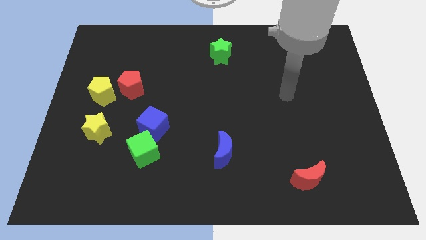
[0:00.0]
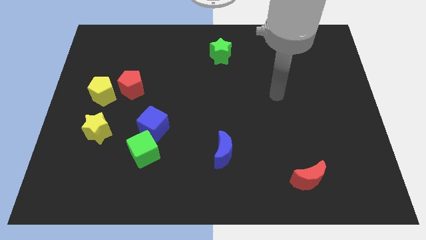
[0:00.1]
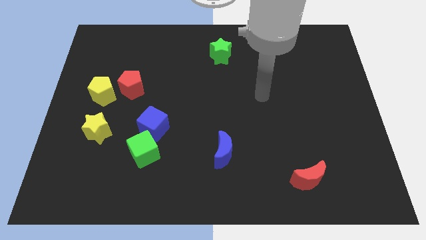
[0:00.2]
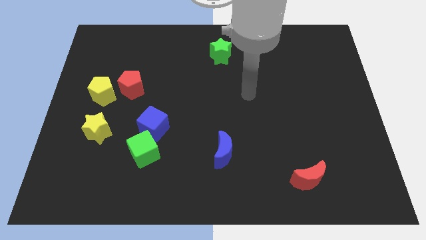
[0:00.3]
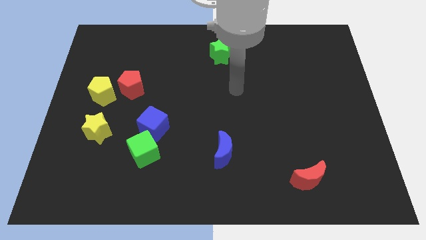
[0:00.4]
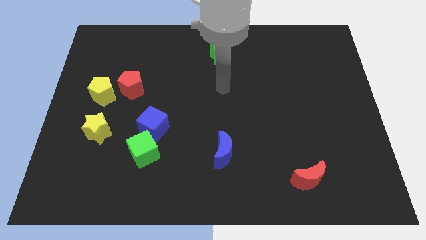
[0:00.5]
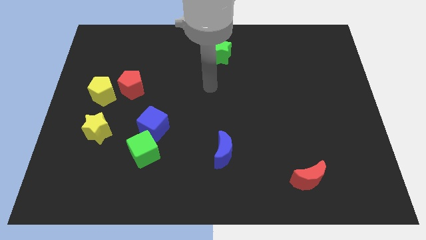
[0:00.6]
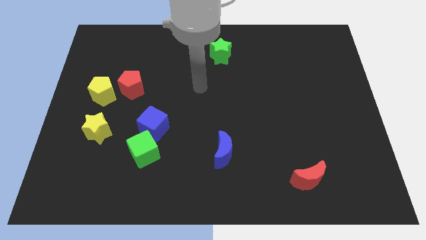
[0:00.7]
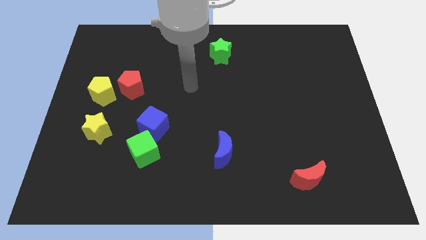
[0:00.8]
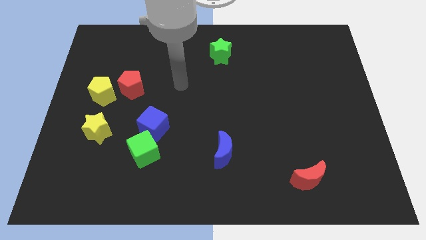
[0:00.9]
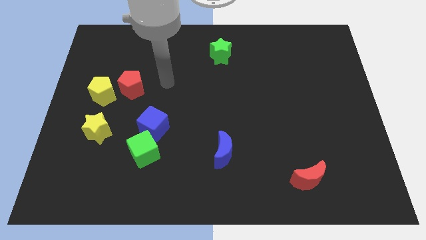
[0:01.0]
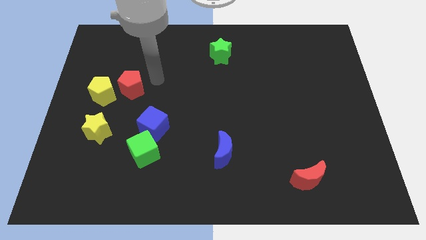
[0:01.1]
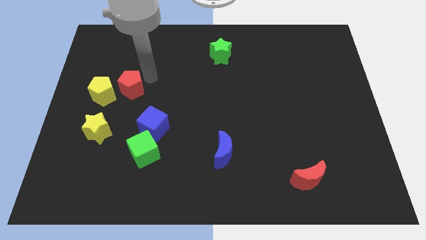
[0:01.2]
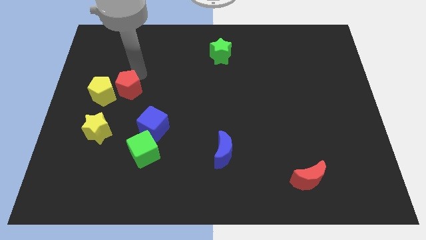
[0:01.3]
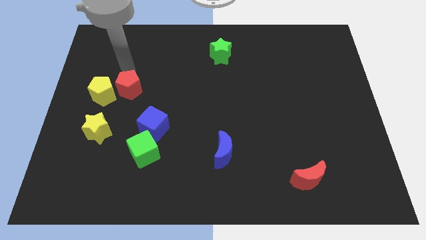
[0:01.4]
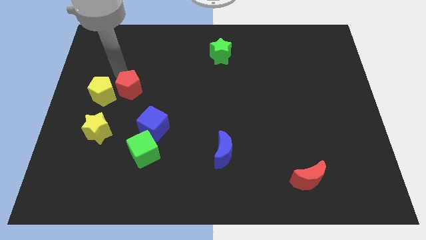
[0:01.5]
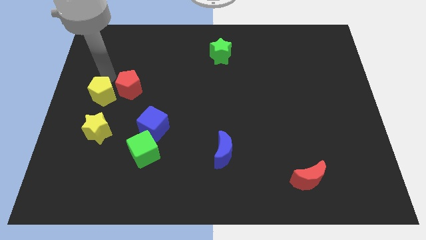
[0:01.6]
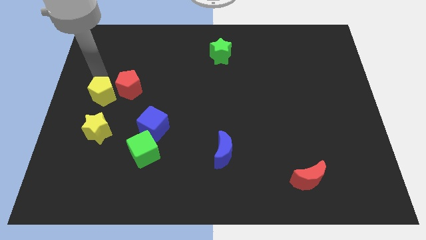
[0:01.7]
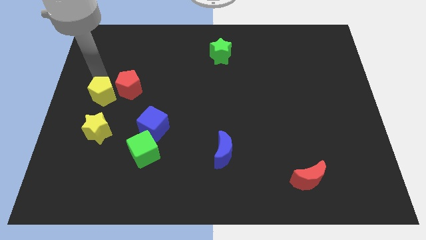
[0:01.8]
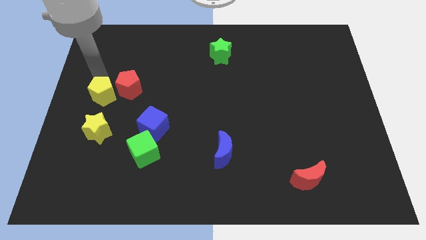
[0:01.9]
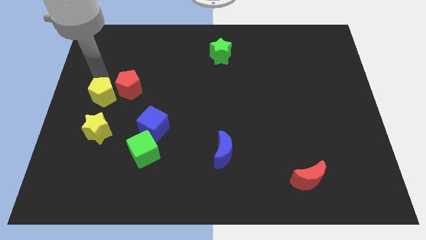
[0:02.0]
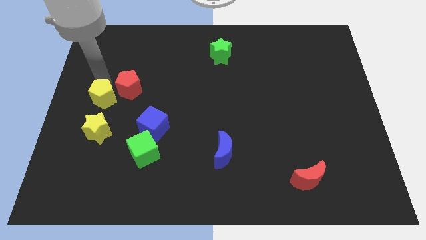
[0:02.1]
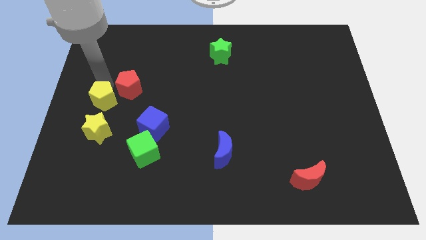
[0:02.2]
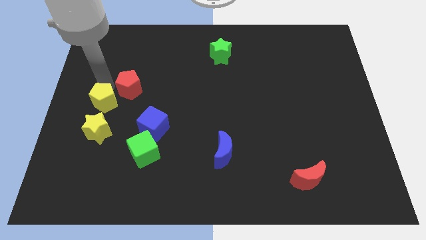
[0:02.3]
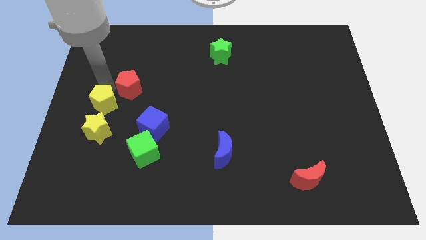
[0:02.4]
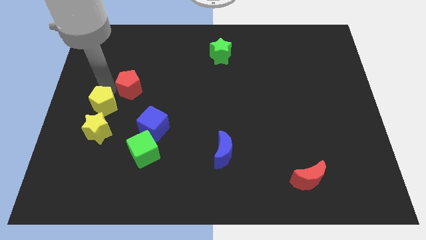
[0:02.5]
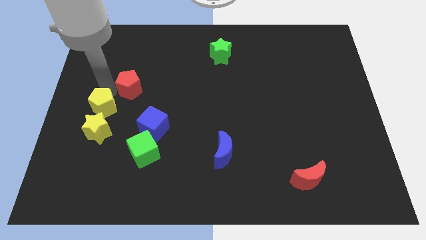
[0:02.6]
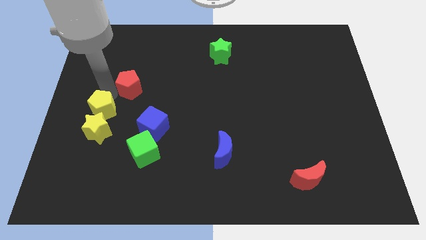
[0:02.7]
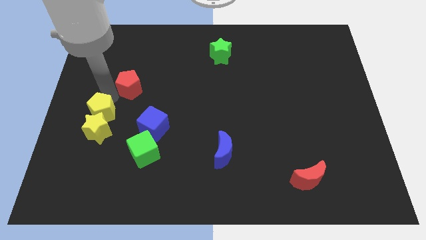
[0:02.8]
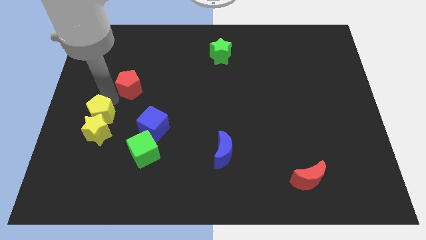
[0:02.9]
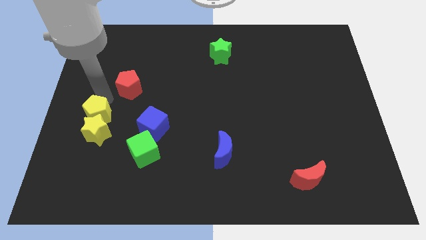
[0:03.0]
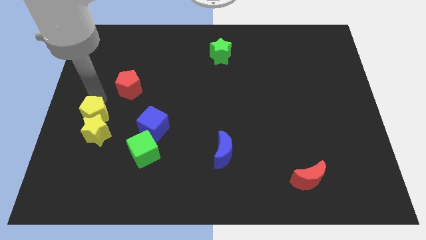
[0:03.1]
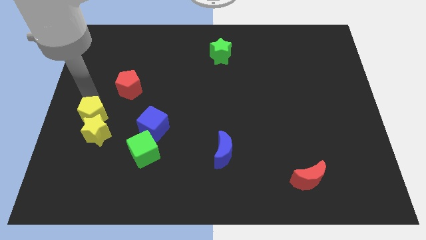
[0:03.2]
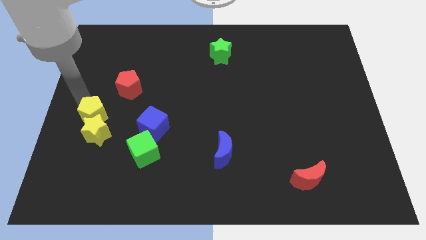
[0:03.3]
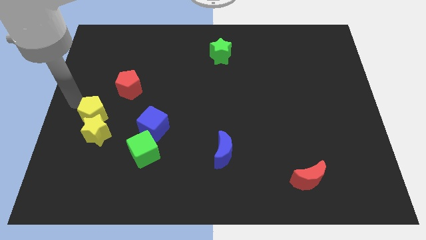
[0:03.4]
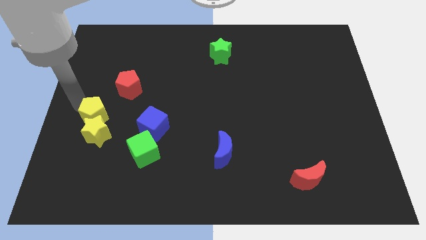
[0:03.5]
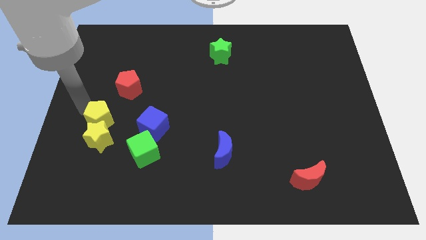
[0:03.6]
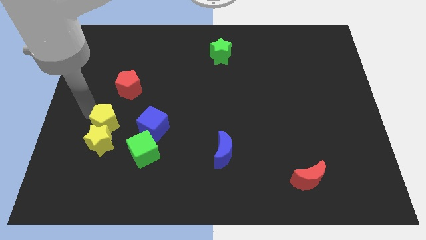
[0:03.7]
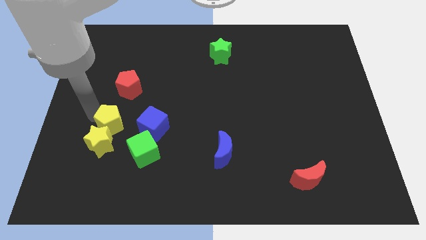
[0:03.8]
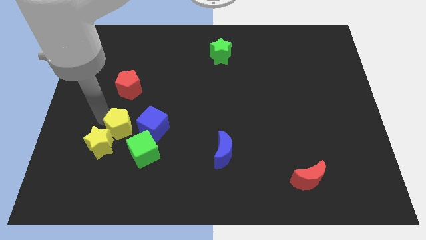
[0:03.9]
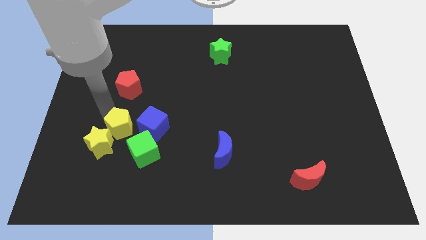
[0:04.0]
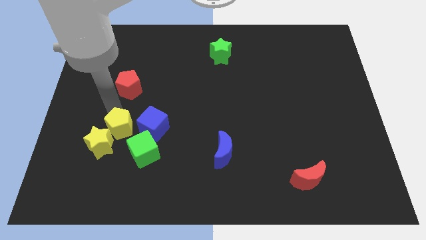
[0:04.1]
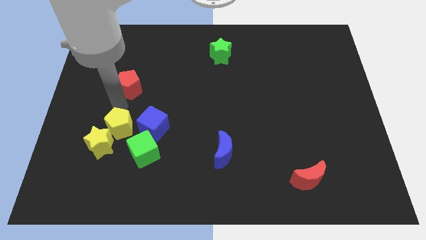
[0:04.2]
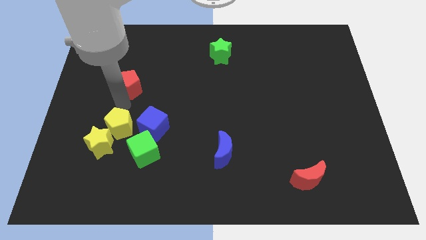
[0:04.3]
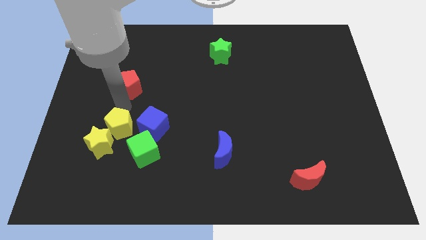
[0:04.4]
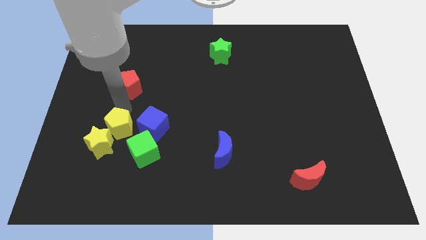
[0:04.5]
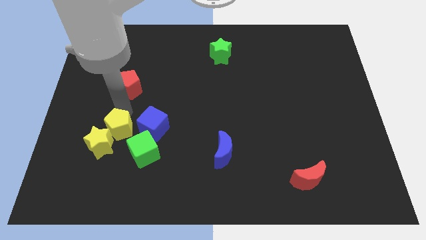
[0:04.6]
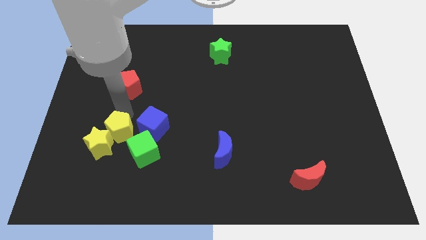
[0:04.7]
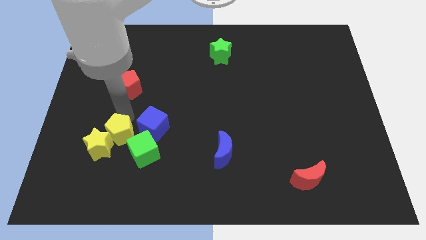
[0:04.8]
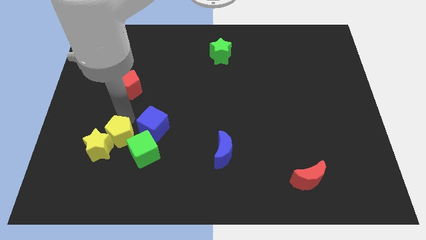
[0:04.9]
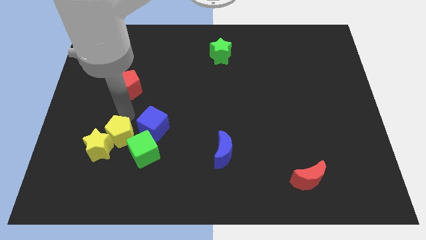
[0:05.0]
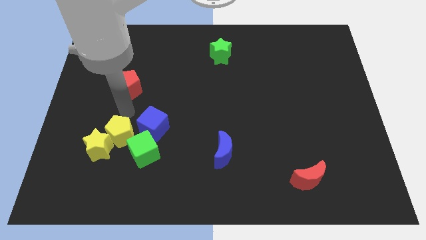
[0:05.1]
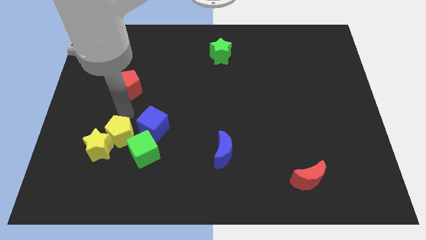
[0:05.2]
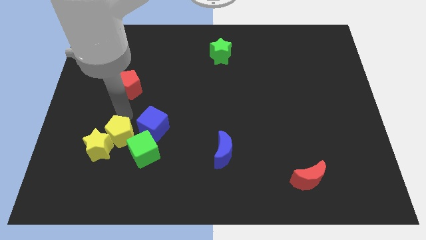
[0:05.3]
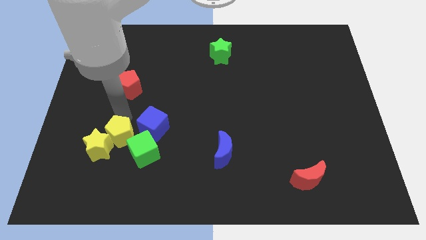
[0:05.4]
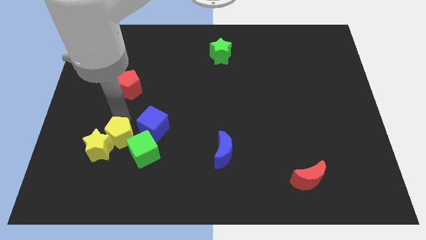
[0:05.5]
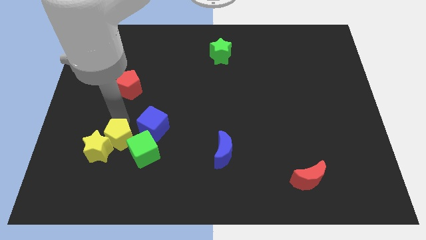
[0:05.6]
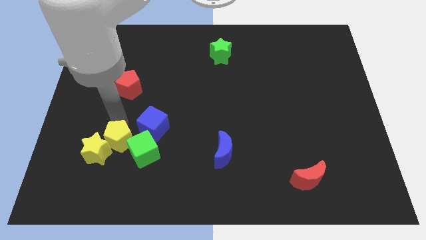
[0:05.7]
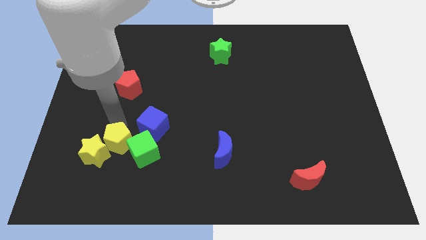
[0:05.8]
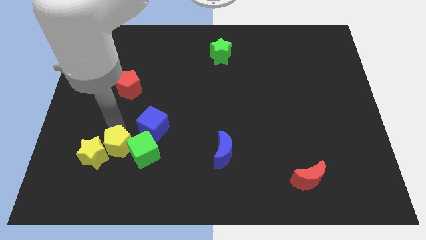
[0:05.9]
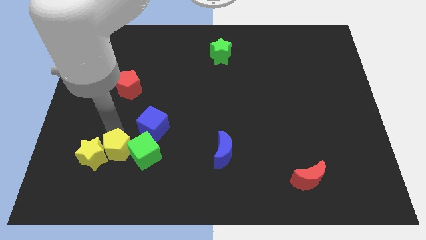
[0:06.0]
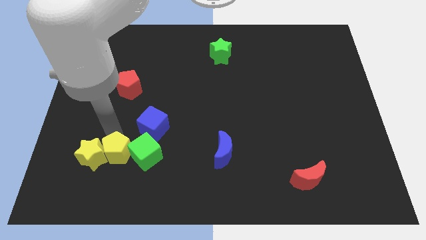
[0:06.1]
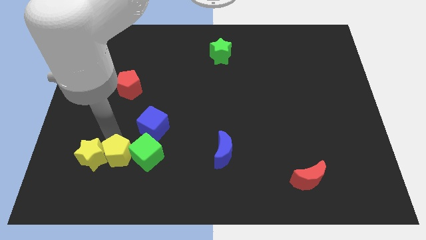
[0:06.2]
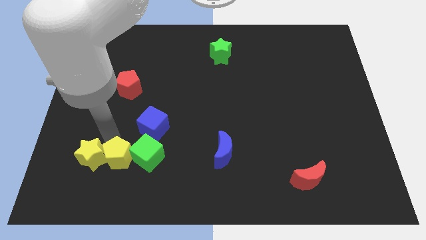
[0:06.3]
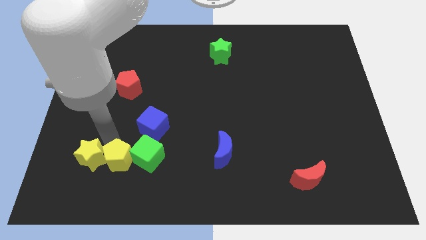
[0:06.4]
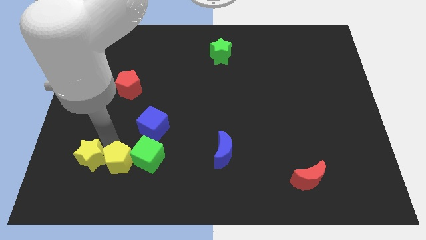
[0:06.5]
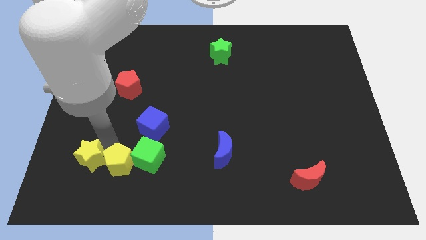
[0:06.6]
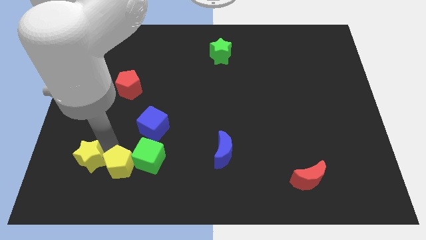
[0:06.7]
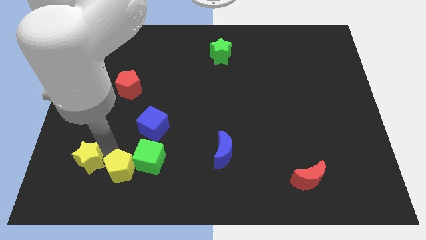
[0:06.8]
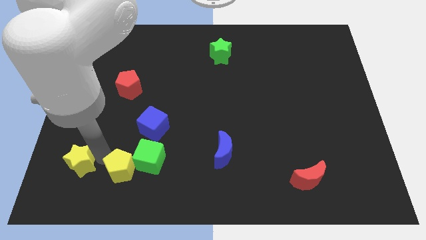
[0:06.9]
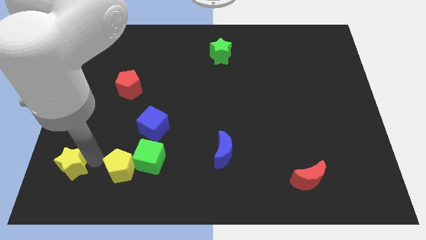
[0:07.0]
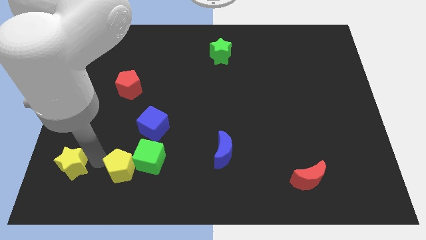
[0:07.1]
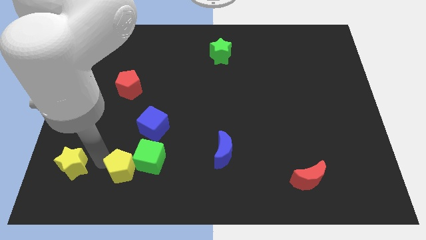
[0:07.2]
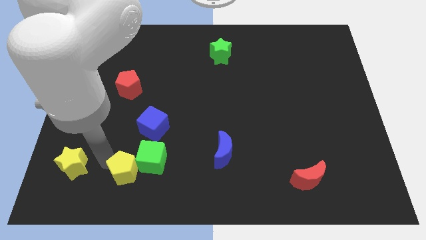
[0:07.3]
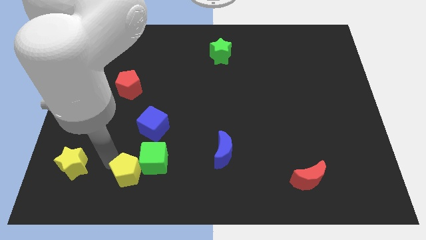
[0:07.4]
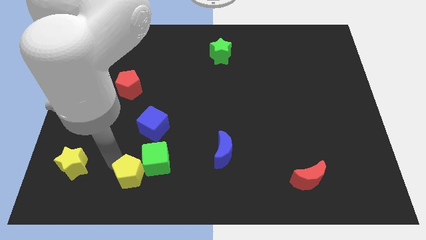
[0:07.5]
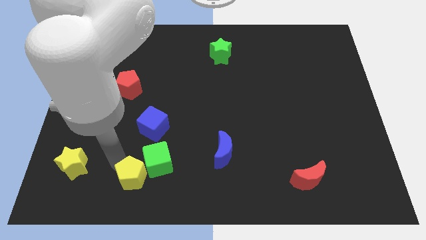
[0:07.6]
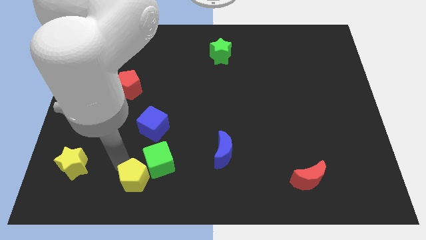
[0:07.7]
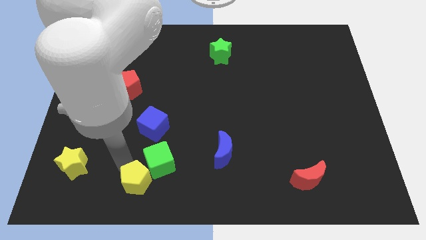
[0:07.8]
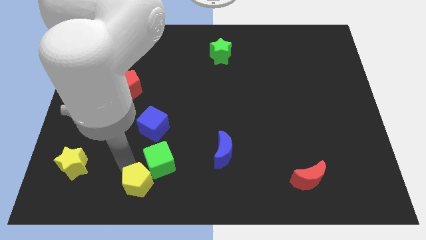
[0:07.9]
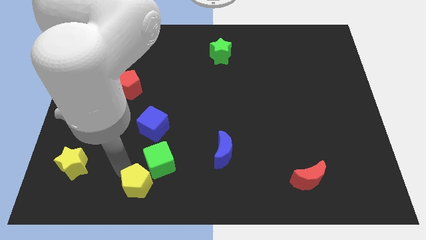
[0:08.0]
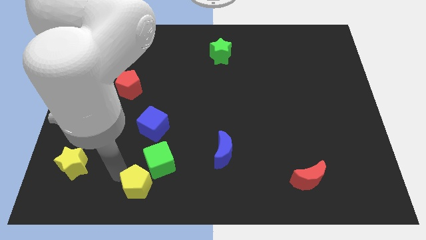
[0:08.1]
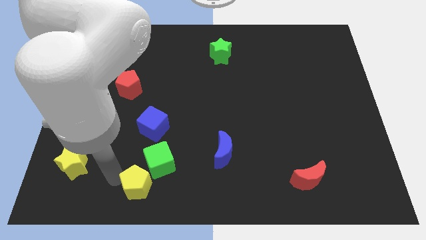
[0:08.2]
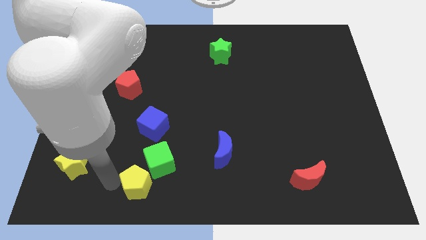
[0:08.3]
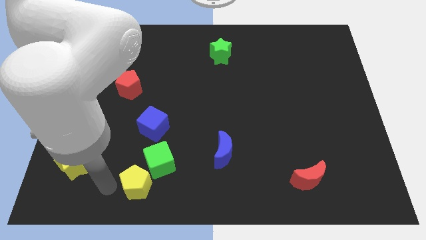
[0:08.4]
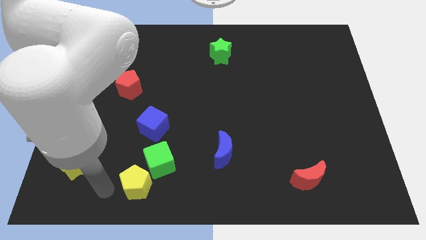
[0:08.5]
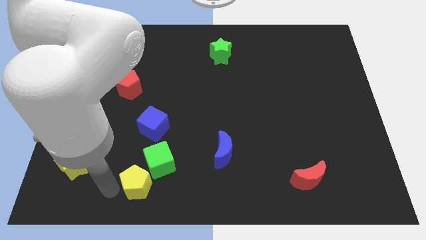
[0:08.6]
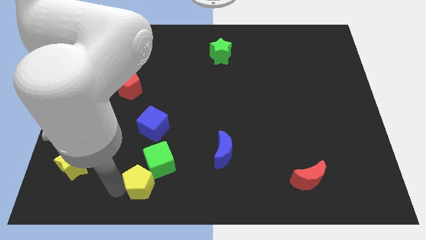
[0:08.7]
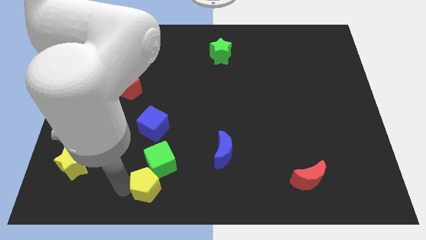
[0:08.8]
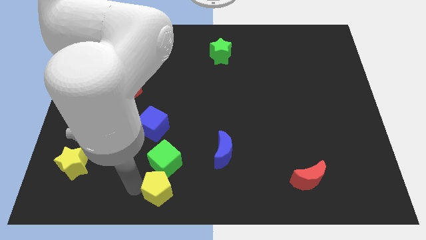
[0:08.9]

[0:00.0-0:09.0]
put the yellow pentagon to the bottom
